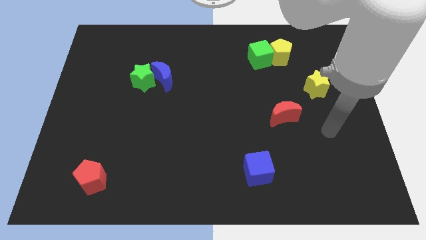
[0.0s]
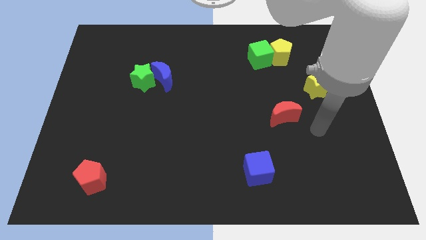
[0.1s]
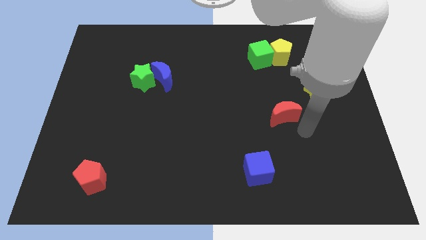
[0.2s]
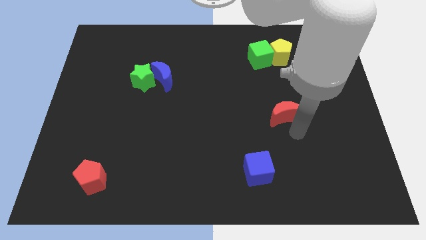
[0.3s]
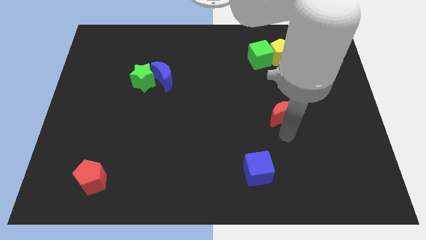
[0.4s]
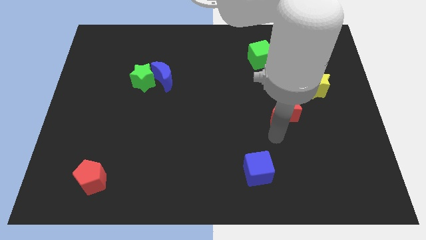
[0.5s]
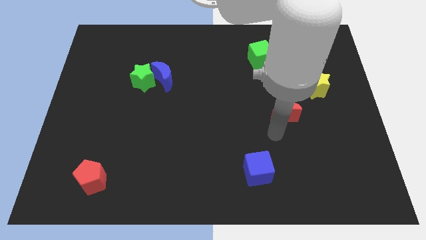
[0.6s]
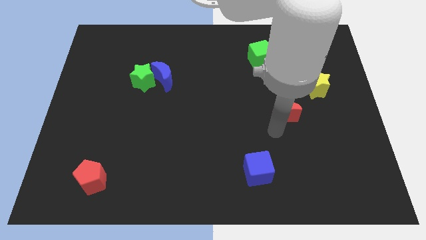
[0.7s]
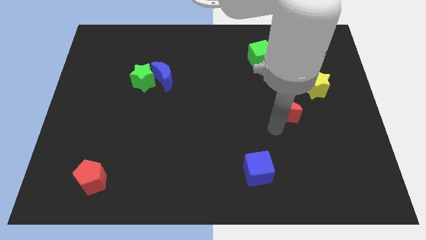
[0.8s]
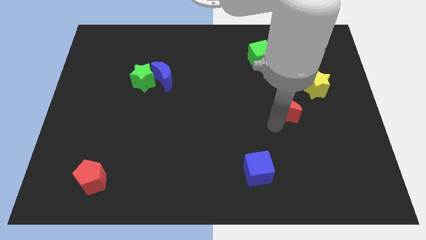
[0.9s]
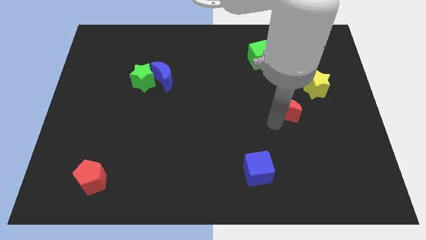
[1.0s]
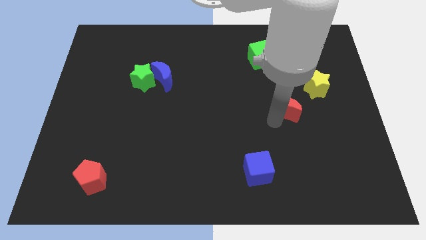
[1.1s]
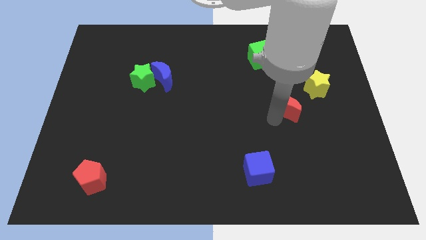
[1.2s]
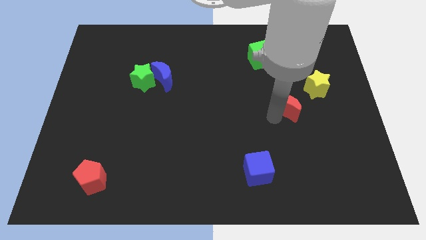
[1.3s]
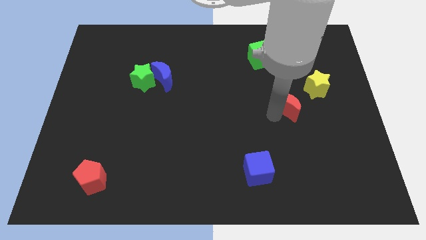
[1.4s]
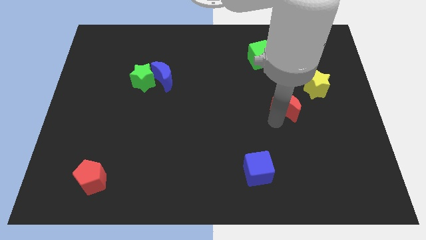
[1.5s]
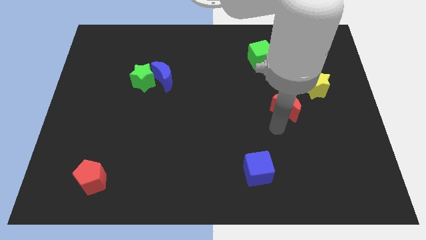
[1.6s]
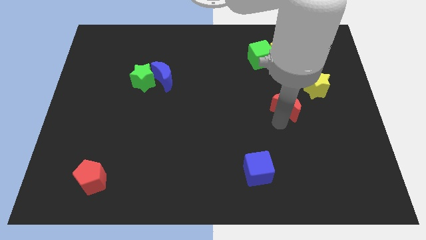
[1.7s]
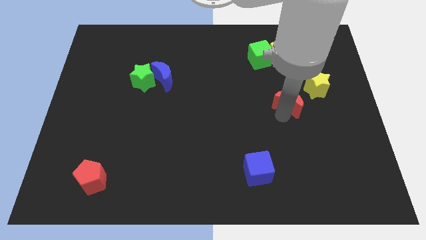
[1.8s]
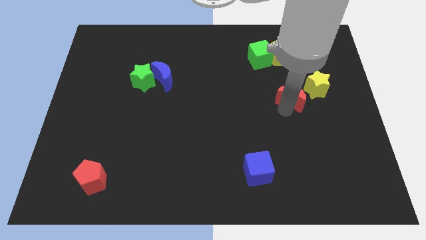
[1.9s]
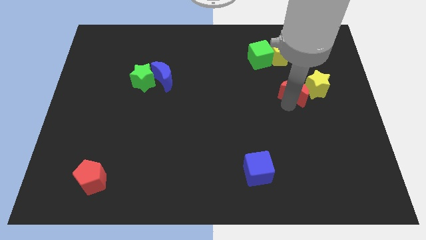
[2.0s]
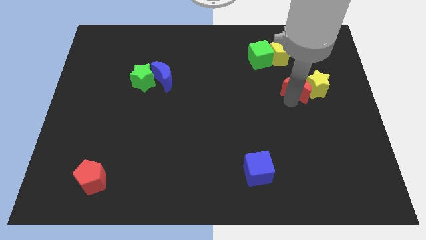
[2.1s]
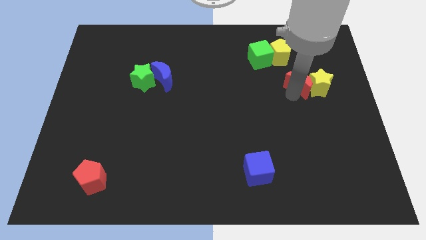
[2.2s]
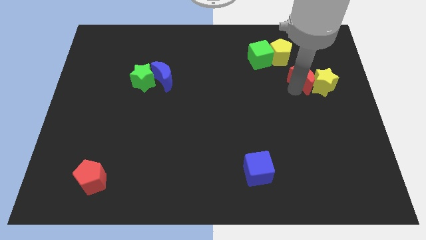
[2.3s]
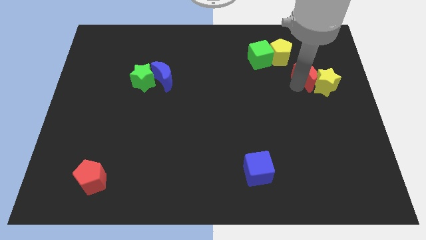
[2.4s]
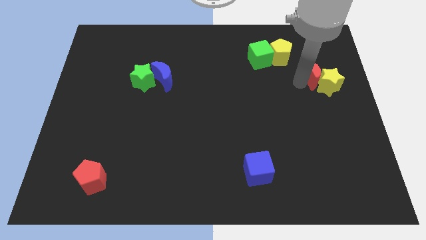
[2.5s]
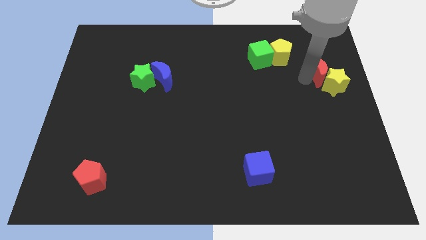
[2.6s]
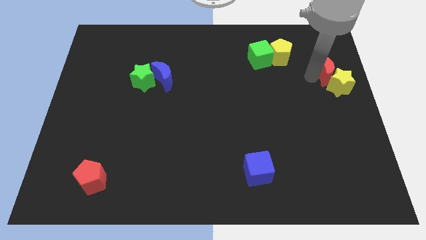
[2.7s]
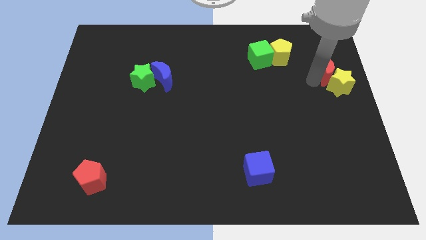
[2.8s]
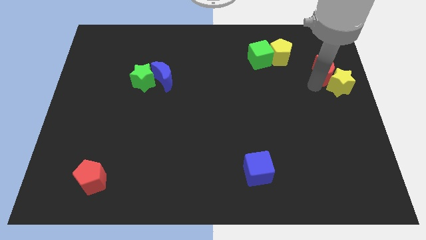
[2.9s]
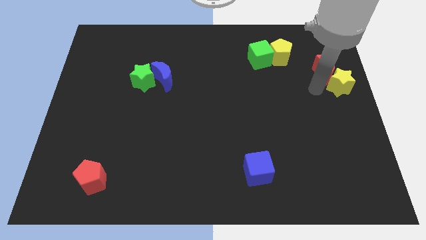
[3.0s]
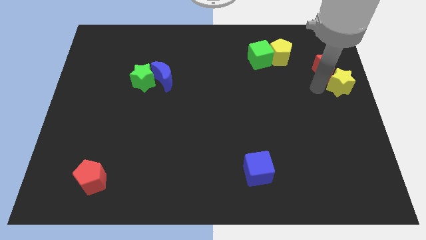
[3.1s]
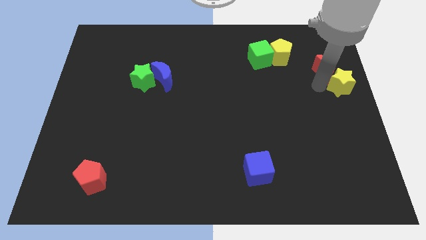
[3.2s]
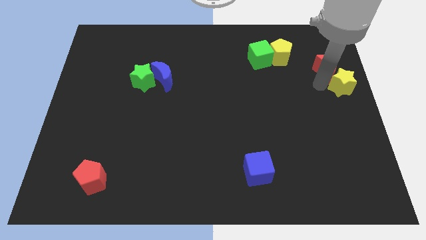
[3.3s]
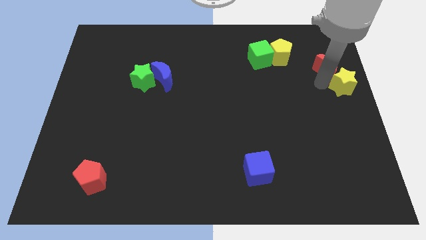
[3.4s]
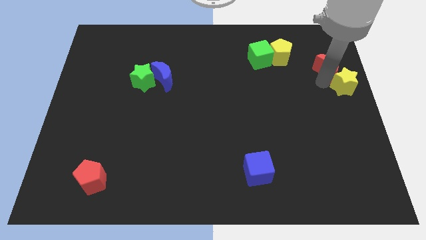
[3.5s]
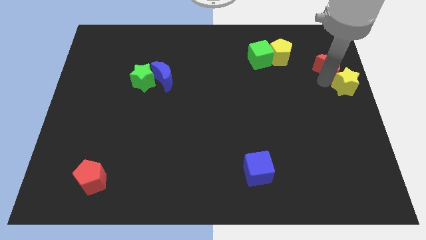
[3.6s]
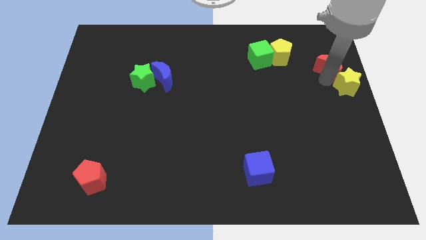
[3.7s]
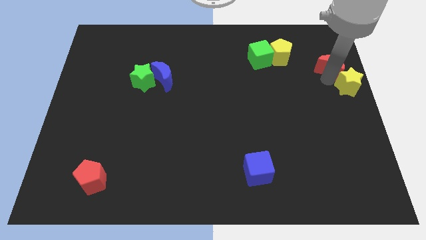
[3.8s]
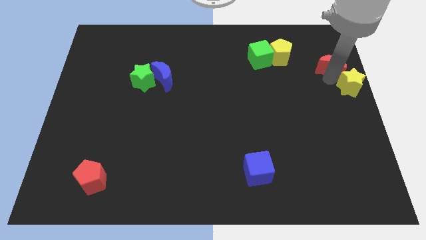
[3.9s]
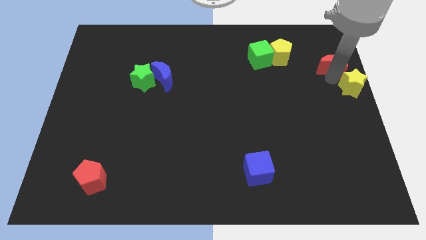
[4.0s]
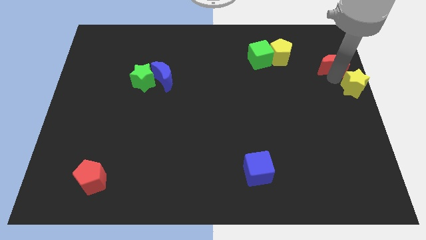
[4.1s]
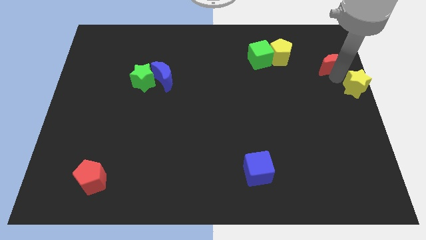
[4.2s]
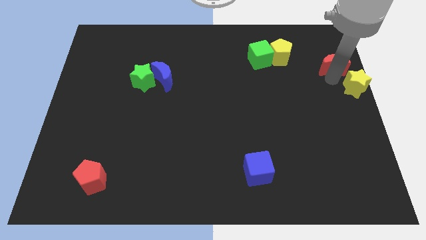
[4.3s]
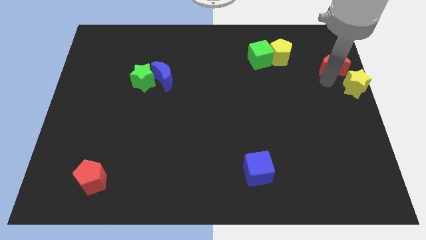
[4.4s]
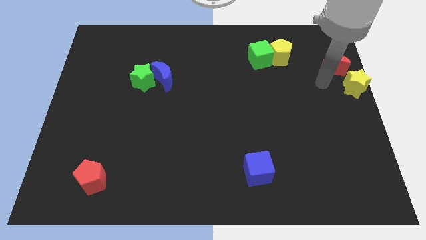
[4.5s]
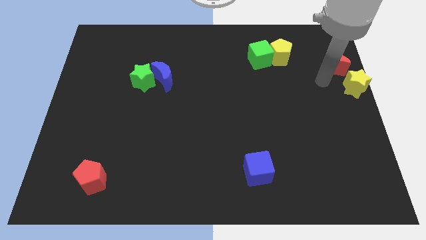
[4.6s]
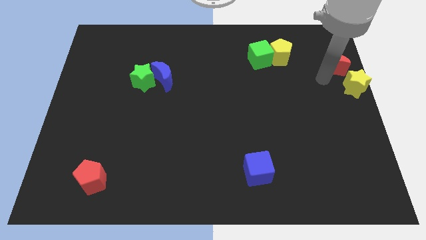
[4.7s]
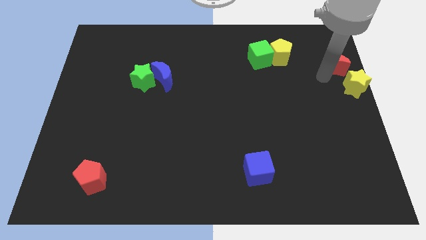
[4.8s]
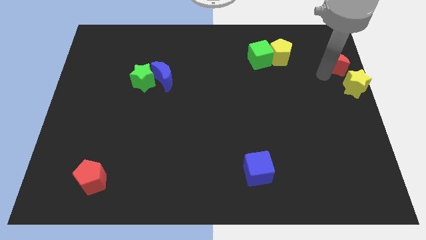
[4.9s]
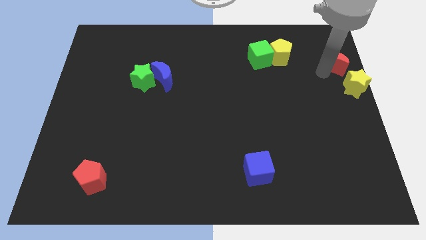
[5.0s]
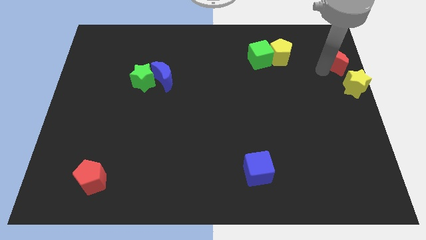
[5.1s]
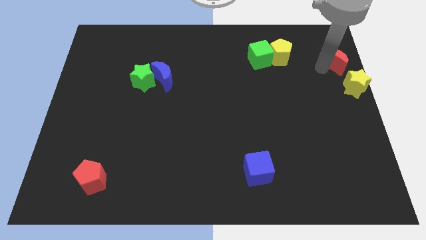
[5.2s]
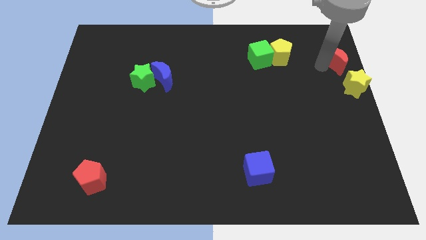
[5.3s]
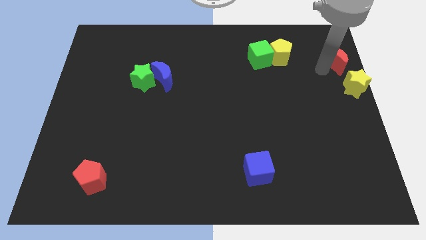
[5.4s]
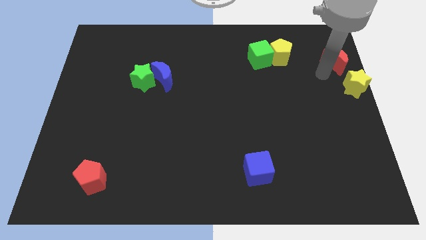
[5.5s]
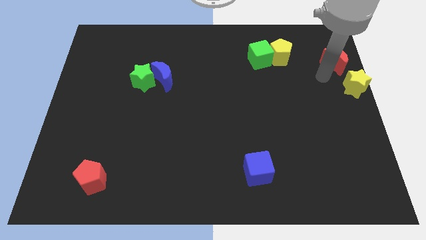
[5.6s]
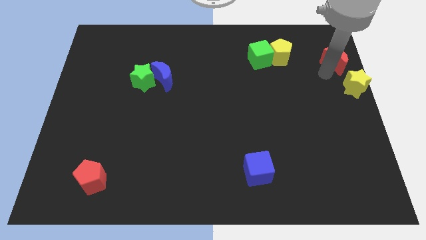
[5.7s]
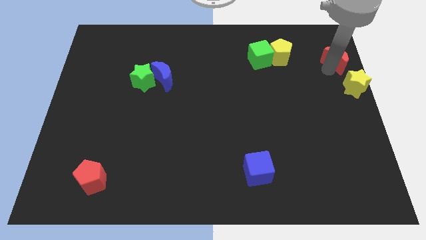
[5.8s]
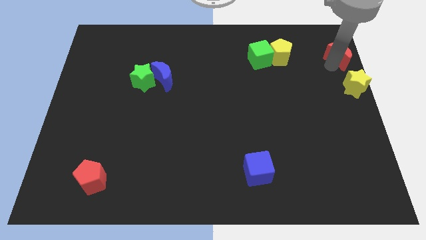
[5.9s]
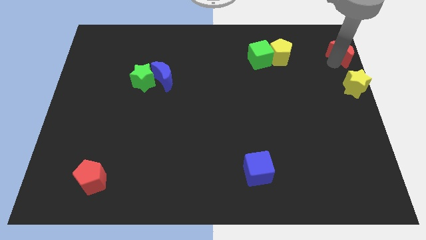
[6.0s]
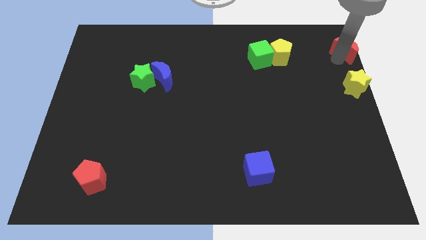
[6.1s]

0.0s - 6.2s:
put the red moon to the top right corner
